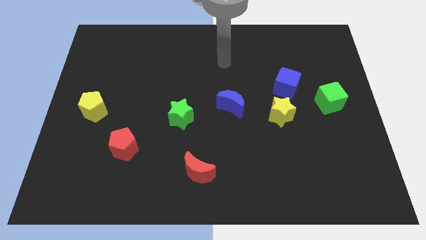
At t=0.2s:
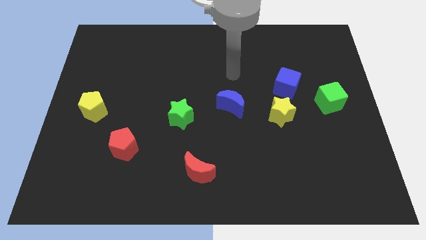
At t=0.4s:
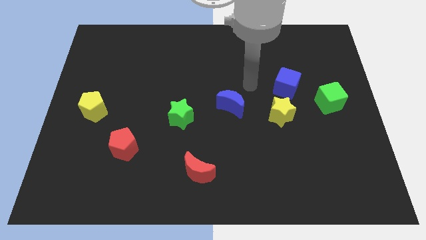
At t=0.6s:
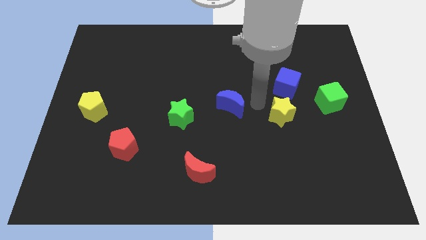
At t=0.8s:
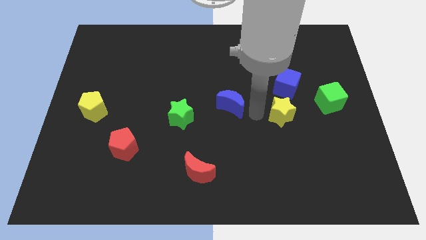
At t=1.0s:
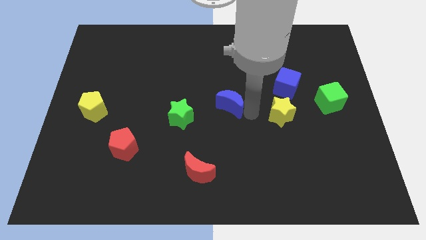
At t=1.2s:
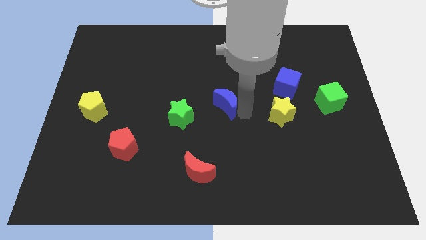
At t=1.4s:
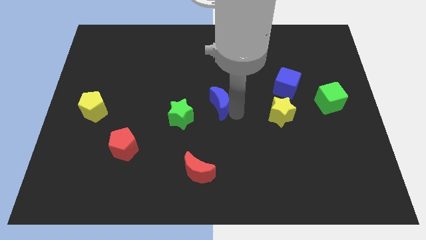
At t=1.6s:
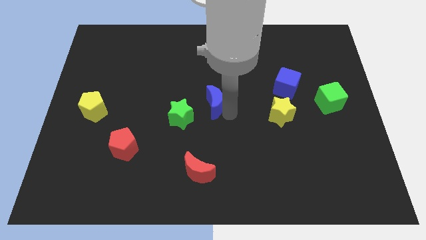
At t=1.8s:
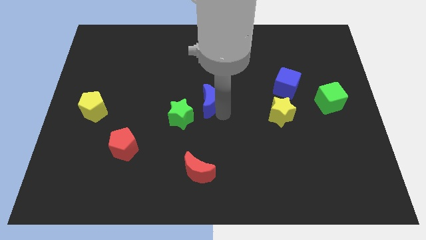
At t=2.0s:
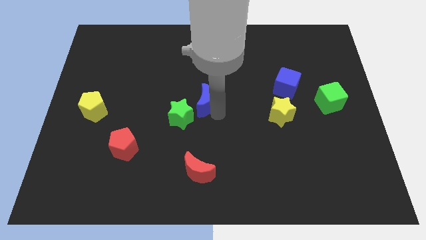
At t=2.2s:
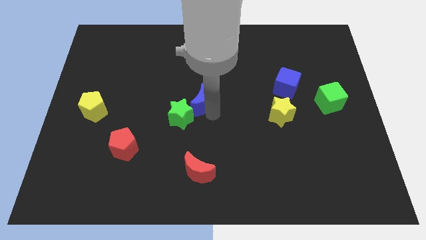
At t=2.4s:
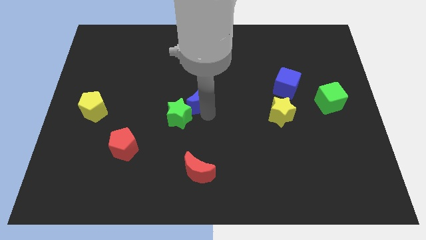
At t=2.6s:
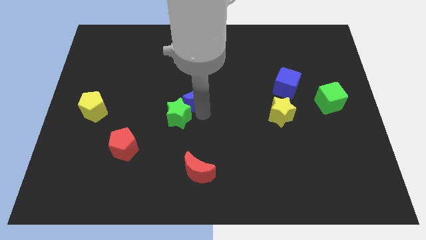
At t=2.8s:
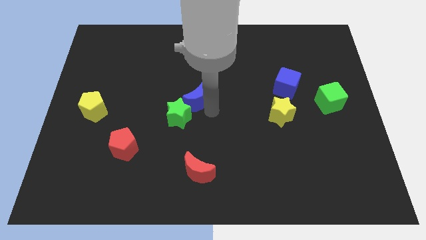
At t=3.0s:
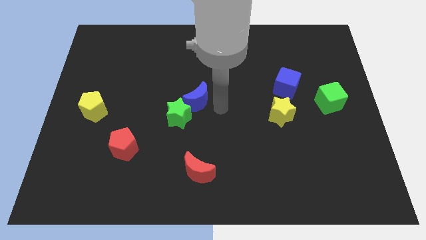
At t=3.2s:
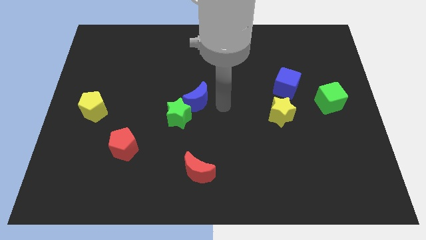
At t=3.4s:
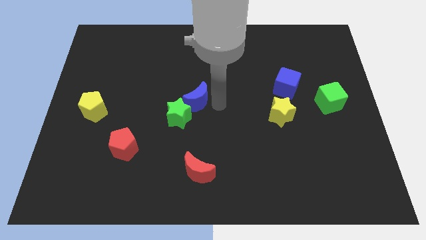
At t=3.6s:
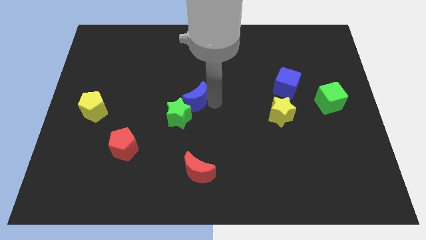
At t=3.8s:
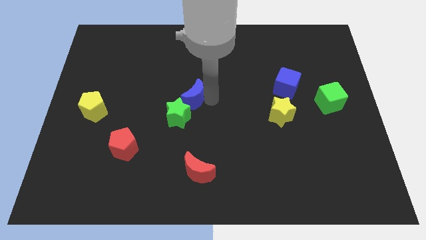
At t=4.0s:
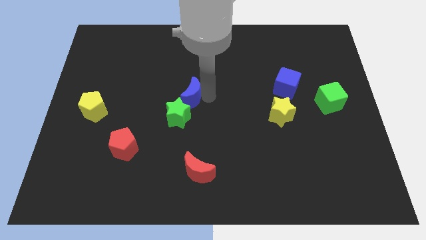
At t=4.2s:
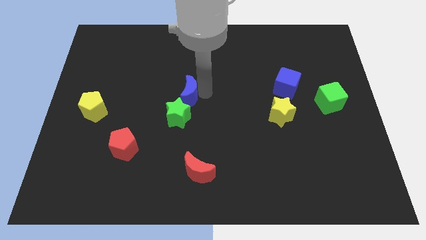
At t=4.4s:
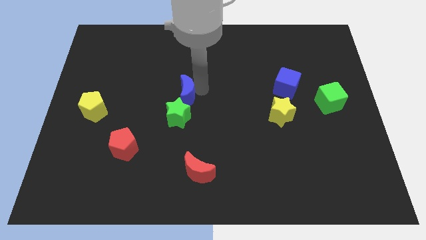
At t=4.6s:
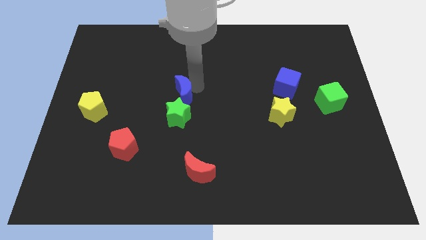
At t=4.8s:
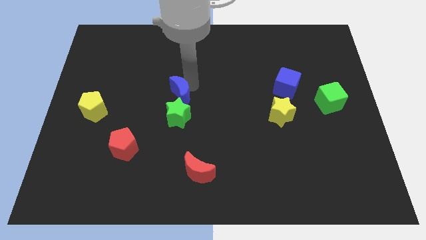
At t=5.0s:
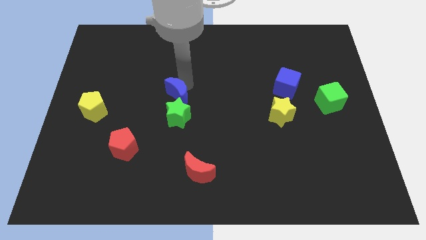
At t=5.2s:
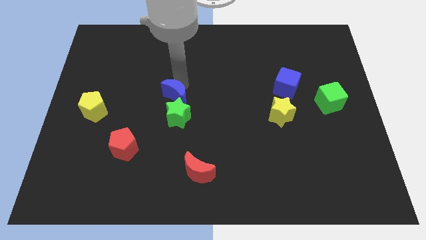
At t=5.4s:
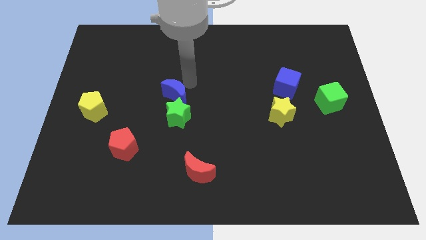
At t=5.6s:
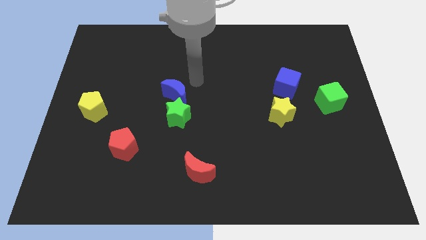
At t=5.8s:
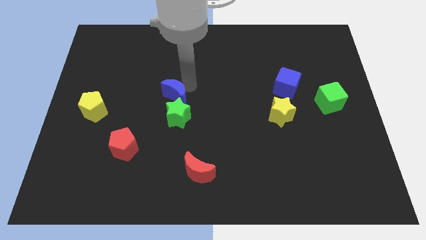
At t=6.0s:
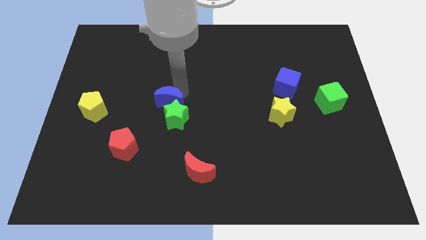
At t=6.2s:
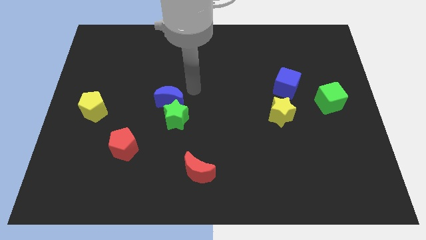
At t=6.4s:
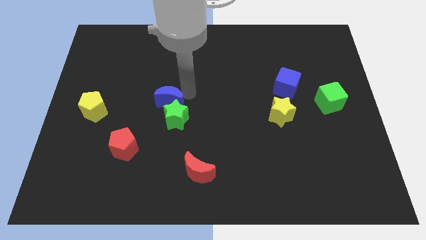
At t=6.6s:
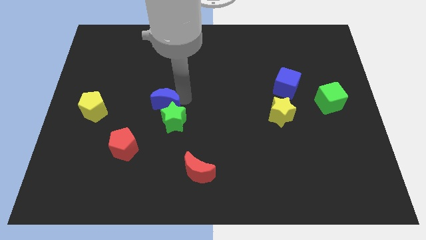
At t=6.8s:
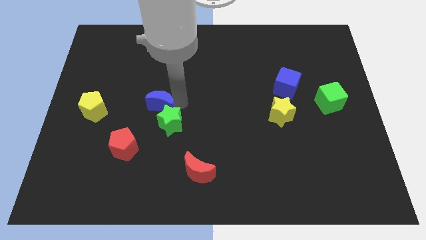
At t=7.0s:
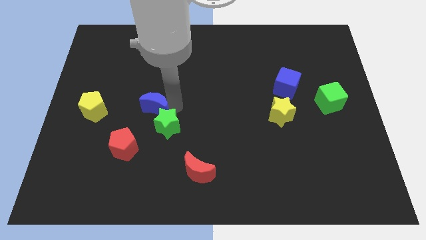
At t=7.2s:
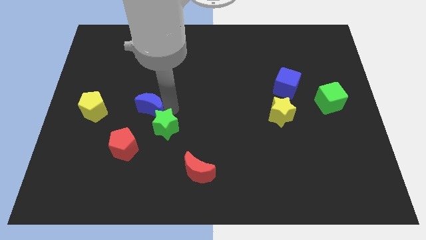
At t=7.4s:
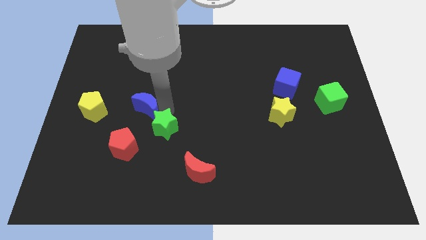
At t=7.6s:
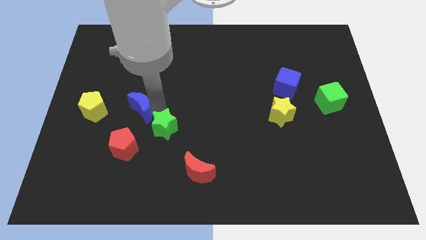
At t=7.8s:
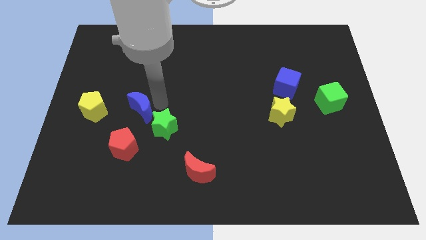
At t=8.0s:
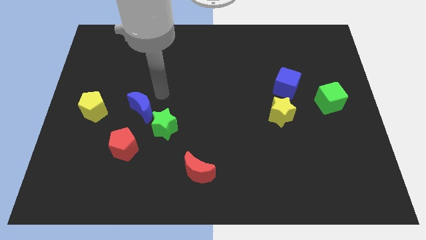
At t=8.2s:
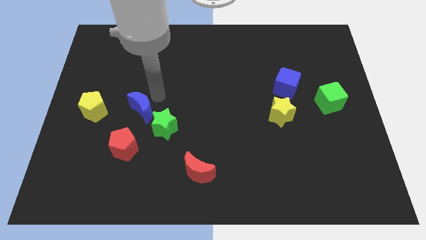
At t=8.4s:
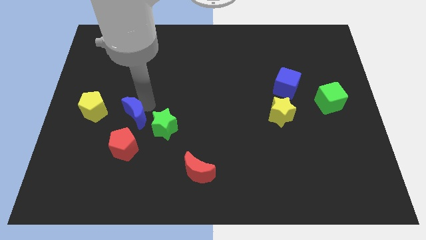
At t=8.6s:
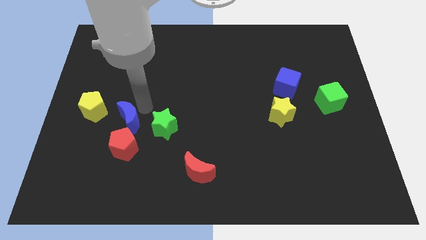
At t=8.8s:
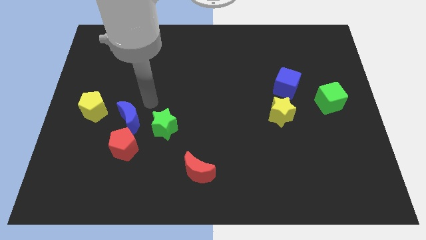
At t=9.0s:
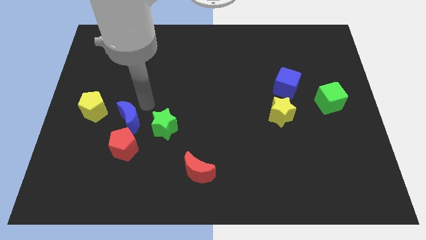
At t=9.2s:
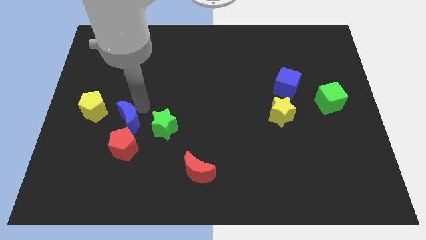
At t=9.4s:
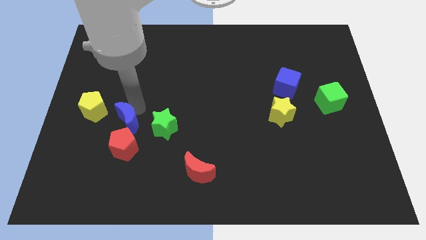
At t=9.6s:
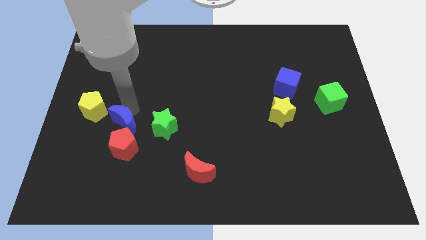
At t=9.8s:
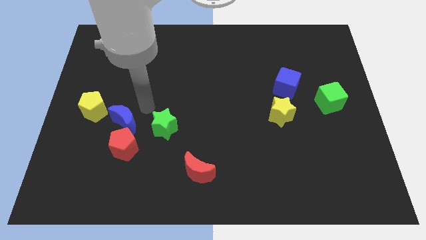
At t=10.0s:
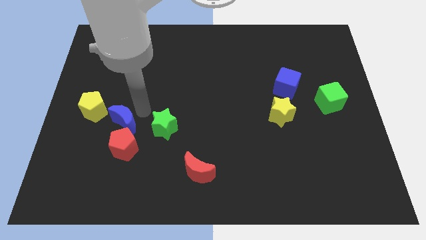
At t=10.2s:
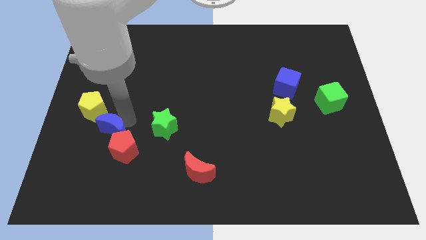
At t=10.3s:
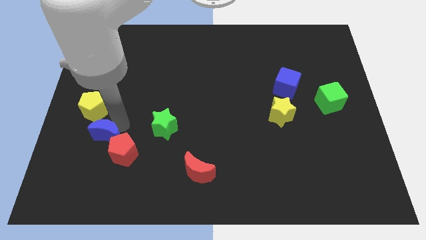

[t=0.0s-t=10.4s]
push the blue moon to the bottom side of the yellow pentagon

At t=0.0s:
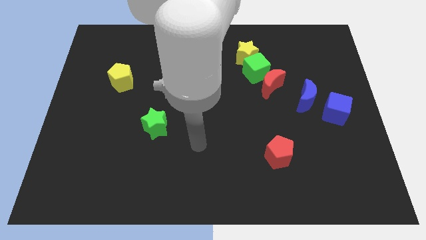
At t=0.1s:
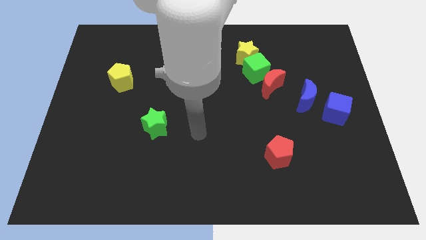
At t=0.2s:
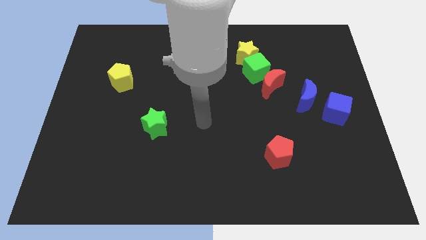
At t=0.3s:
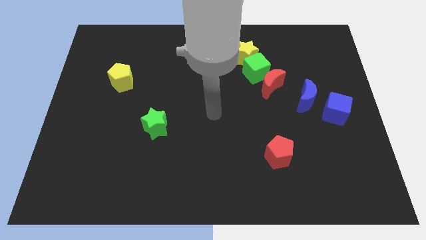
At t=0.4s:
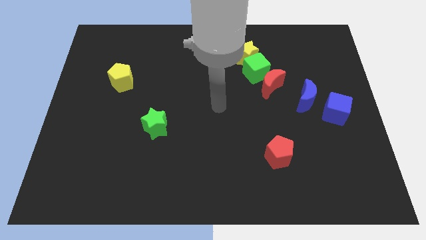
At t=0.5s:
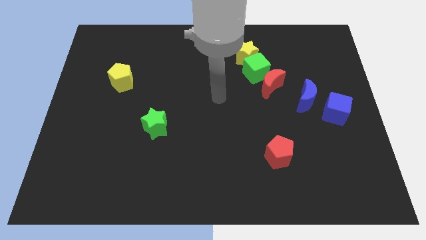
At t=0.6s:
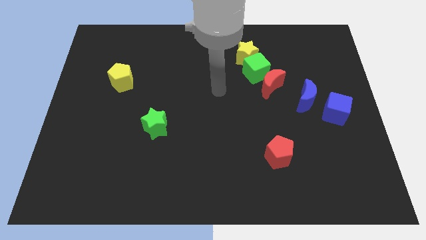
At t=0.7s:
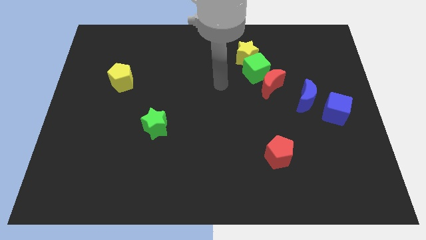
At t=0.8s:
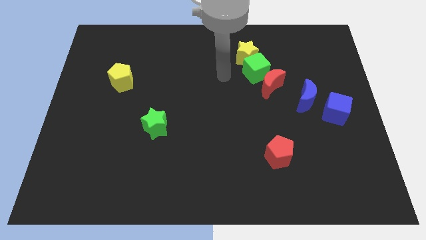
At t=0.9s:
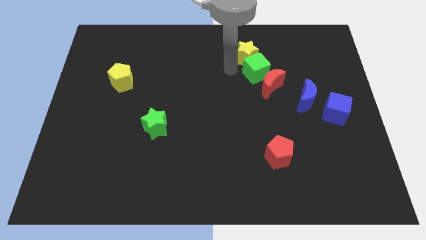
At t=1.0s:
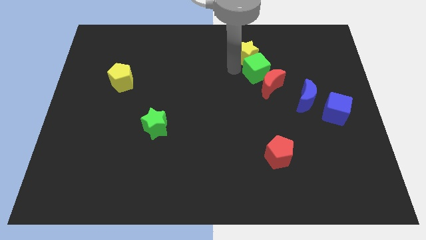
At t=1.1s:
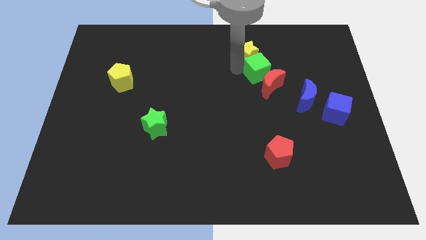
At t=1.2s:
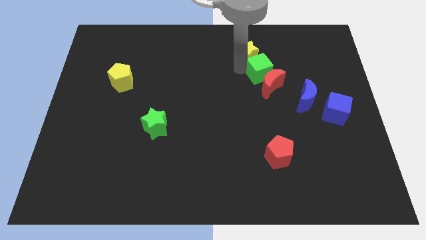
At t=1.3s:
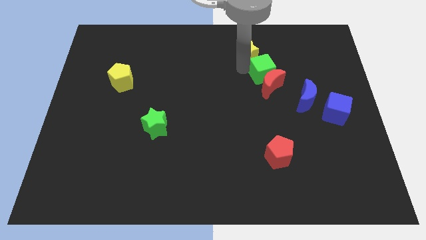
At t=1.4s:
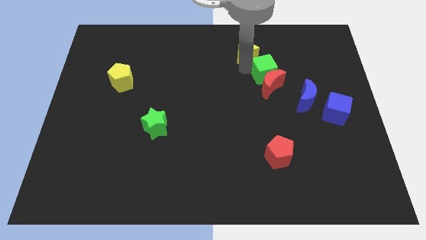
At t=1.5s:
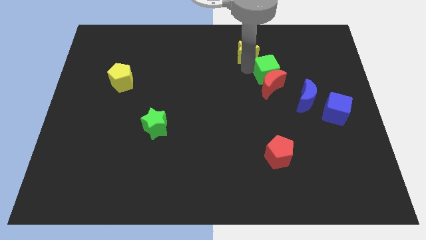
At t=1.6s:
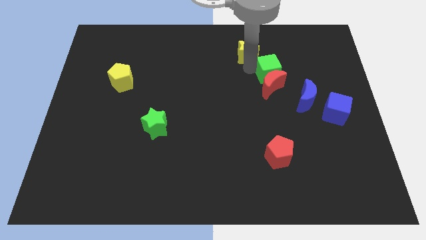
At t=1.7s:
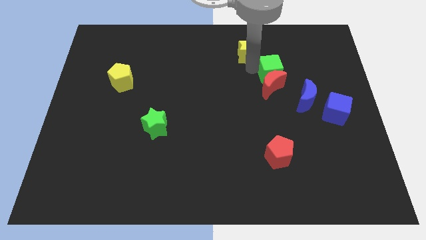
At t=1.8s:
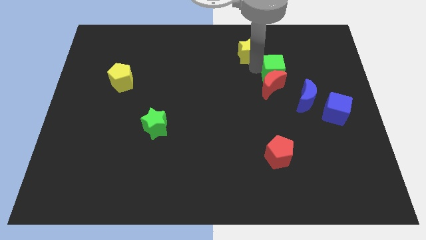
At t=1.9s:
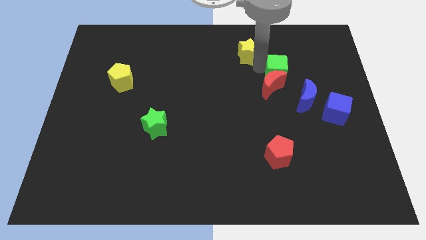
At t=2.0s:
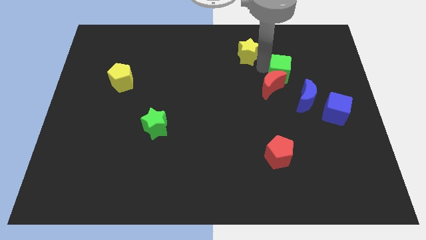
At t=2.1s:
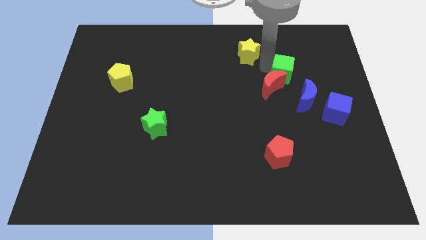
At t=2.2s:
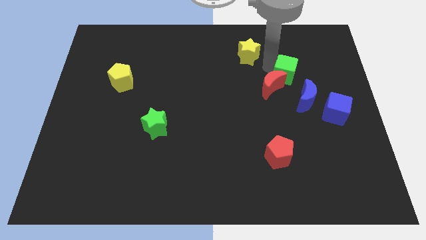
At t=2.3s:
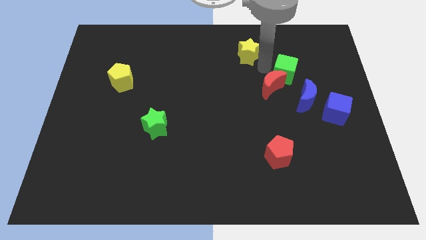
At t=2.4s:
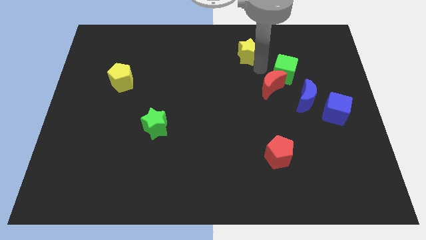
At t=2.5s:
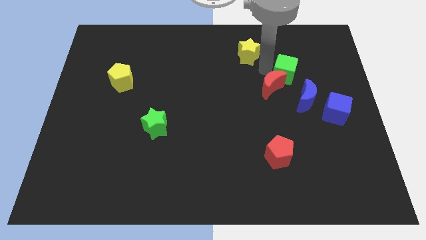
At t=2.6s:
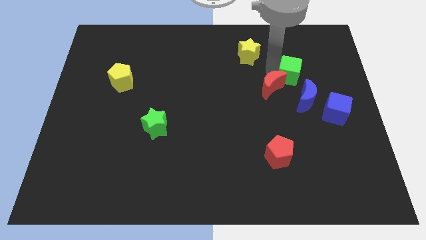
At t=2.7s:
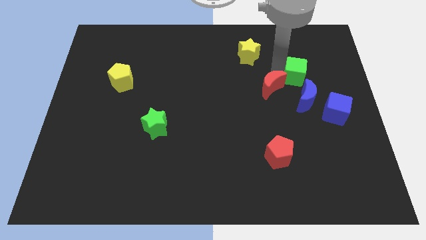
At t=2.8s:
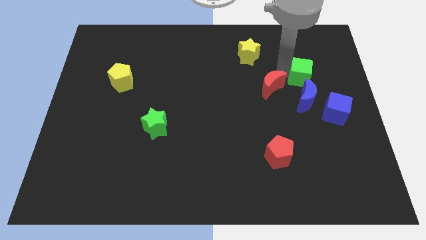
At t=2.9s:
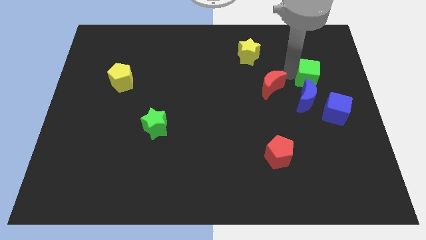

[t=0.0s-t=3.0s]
slide the green cube above the blue cube
